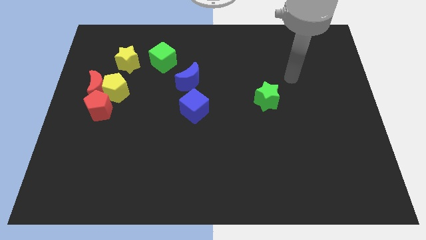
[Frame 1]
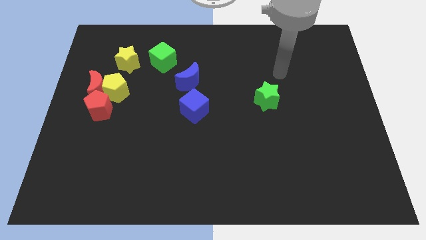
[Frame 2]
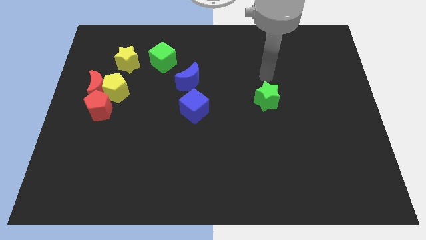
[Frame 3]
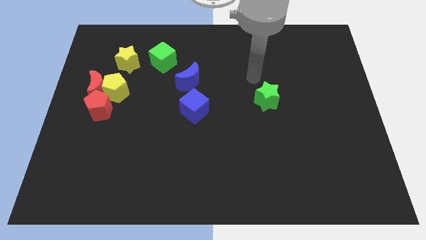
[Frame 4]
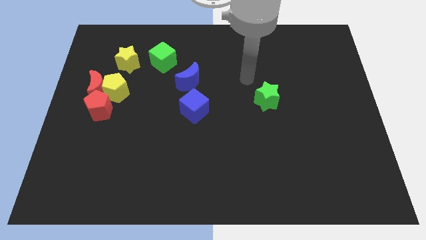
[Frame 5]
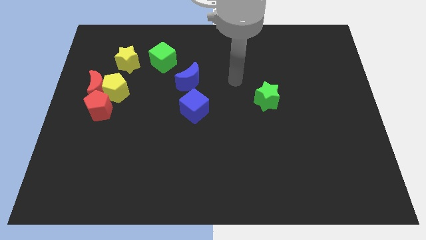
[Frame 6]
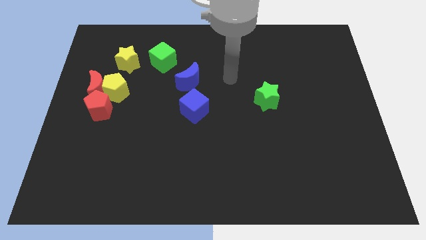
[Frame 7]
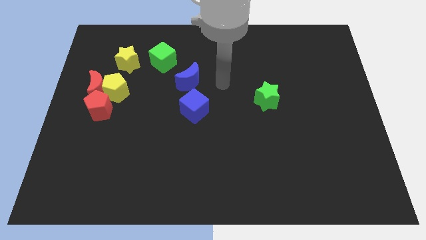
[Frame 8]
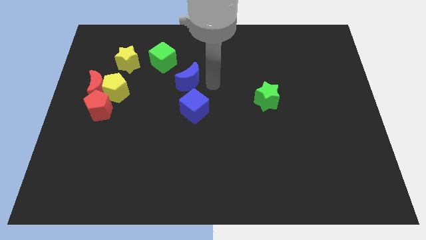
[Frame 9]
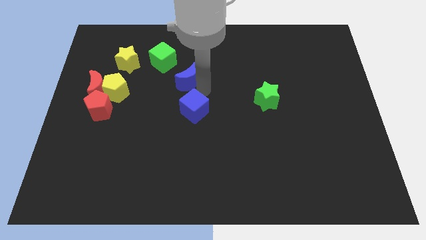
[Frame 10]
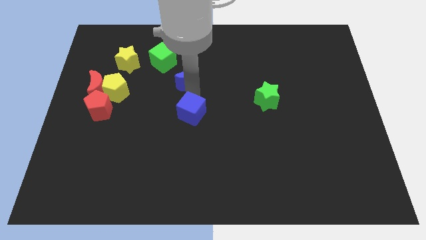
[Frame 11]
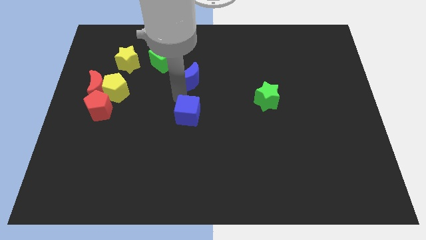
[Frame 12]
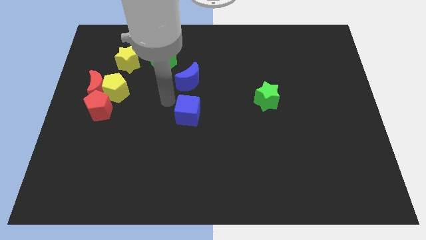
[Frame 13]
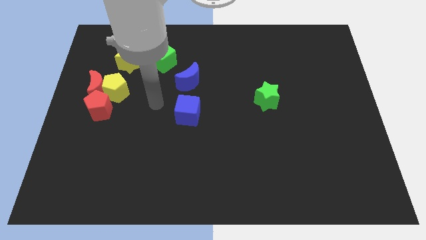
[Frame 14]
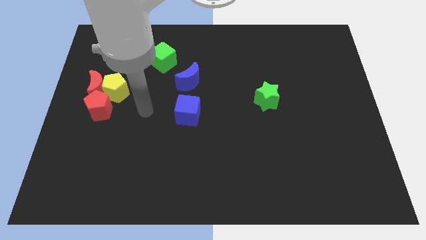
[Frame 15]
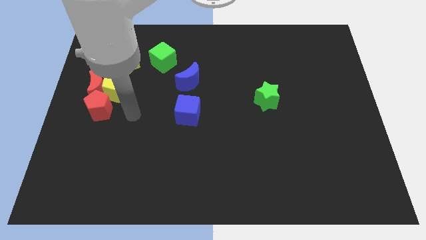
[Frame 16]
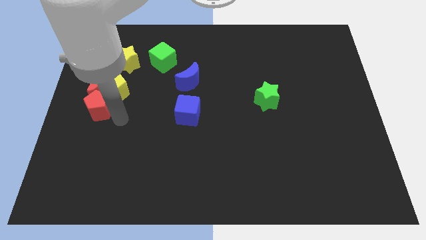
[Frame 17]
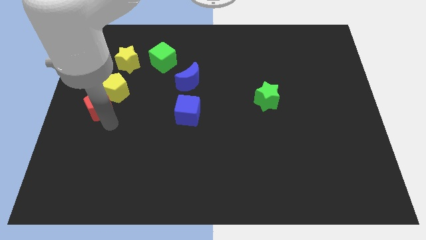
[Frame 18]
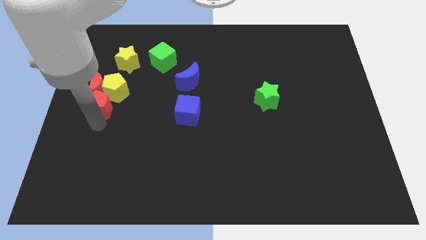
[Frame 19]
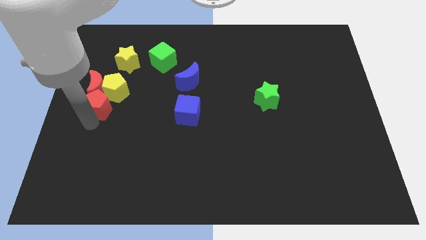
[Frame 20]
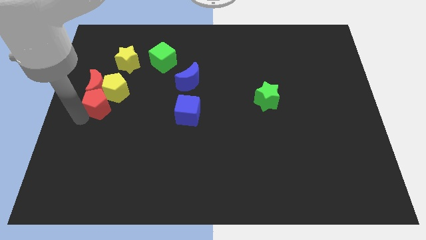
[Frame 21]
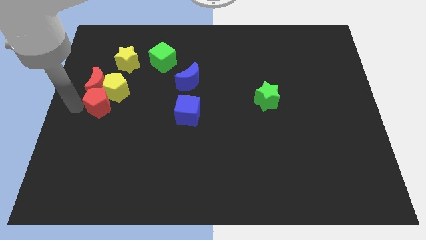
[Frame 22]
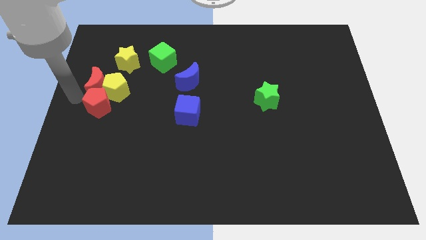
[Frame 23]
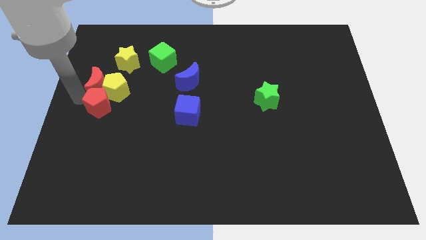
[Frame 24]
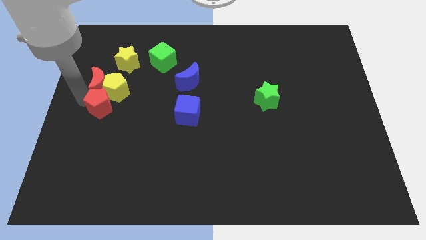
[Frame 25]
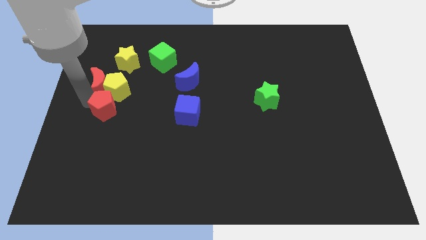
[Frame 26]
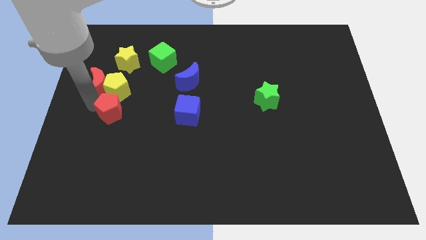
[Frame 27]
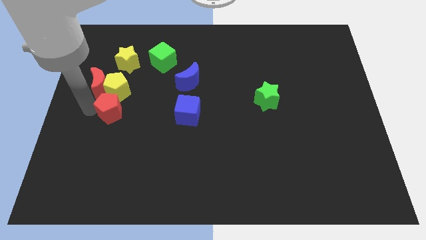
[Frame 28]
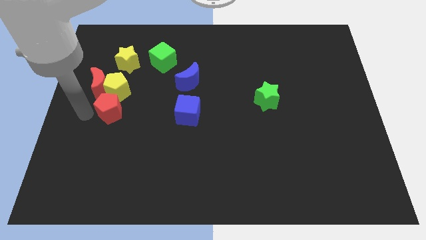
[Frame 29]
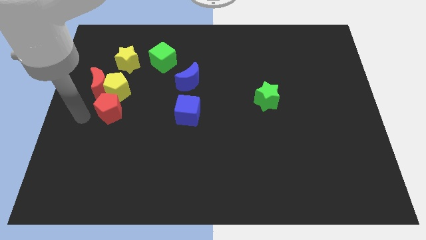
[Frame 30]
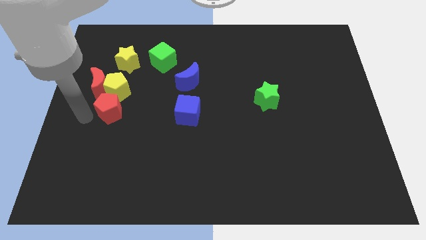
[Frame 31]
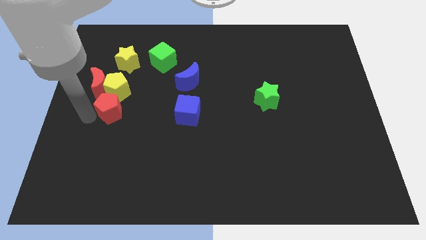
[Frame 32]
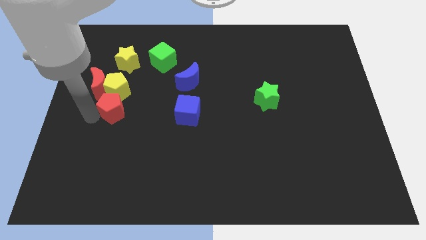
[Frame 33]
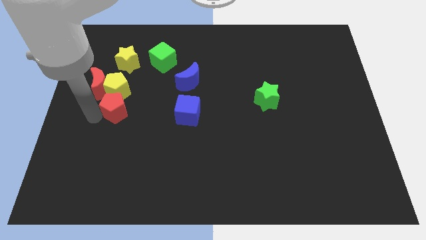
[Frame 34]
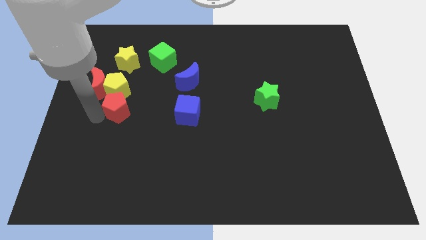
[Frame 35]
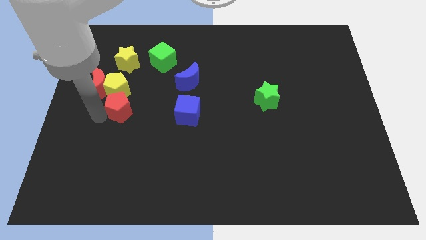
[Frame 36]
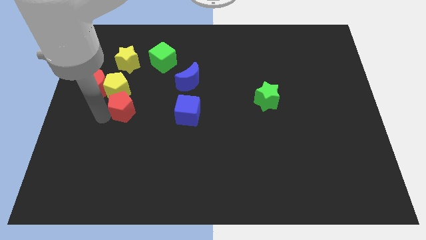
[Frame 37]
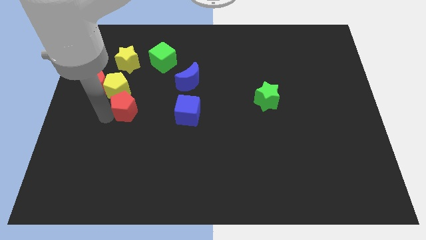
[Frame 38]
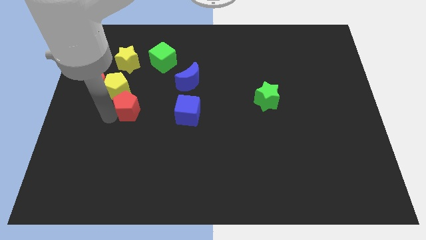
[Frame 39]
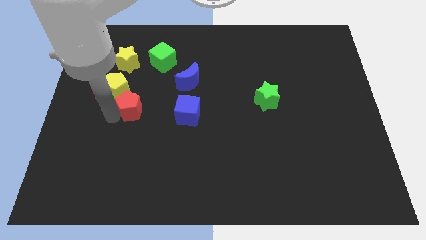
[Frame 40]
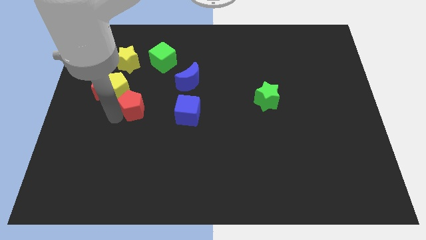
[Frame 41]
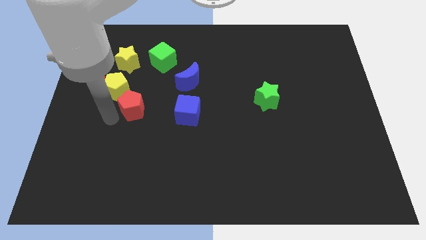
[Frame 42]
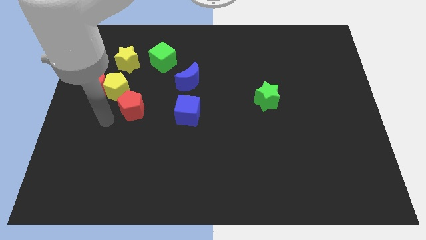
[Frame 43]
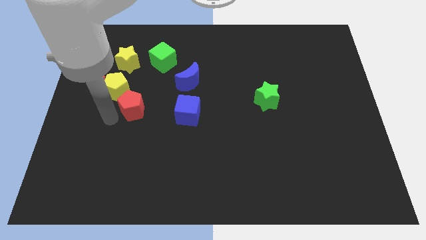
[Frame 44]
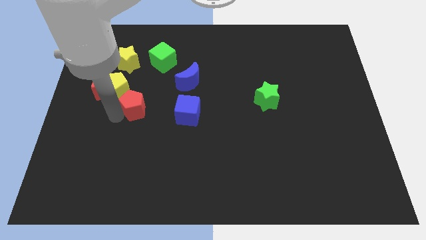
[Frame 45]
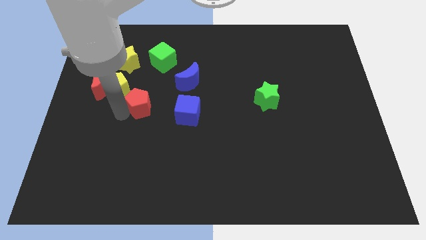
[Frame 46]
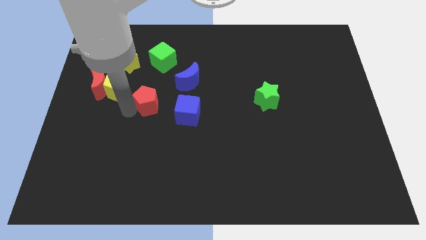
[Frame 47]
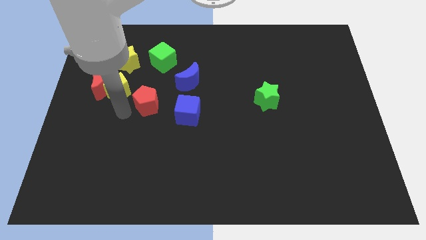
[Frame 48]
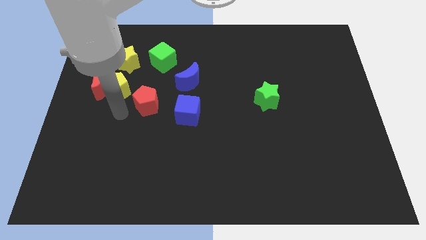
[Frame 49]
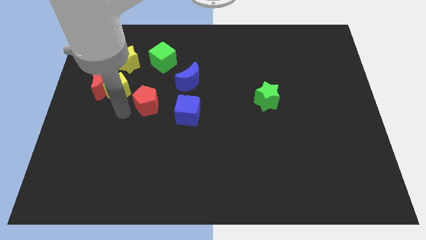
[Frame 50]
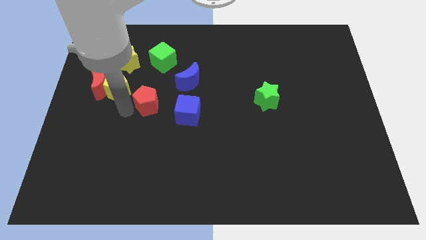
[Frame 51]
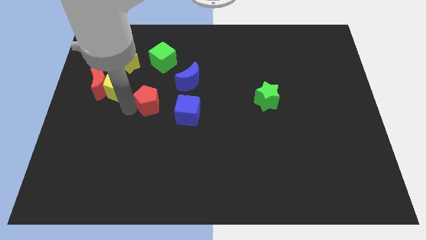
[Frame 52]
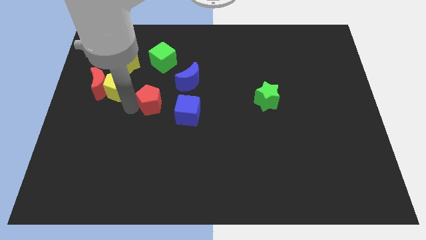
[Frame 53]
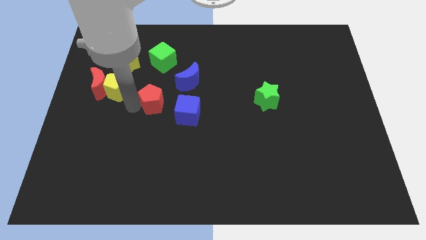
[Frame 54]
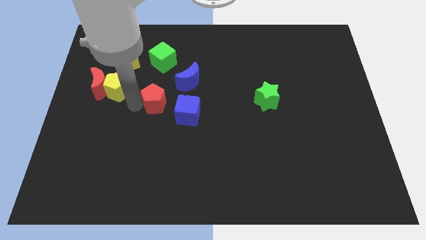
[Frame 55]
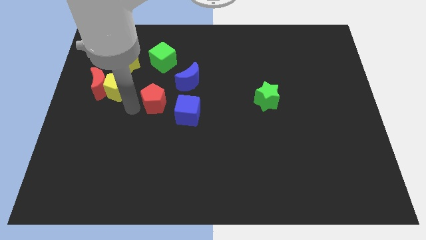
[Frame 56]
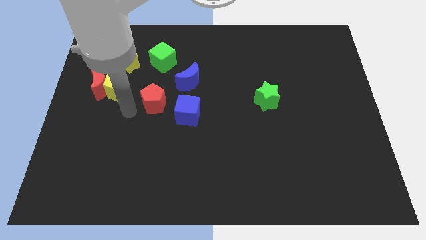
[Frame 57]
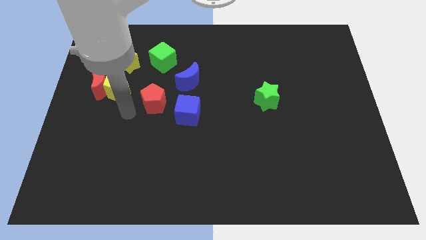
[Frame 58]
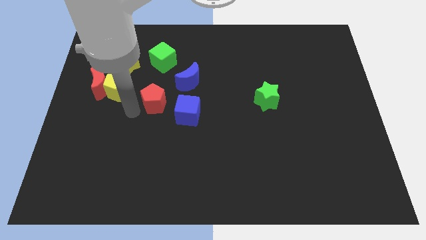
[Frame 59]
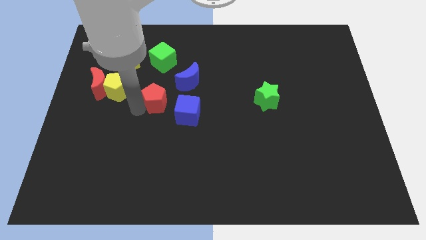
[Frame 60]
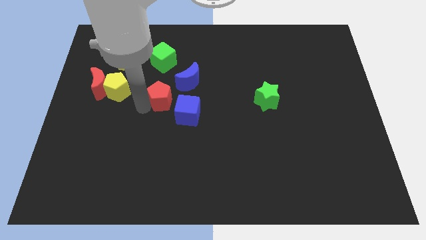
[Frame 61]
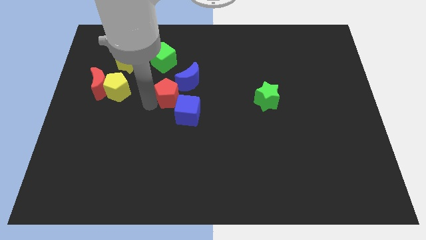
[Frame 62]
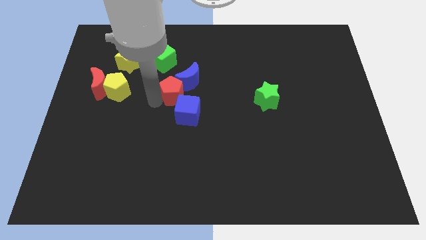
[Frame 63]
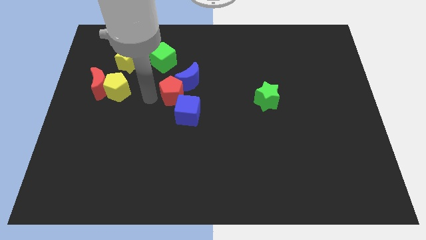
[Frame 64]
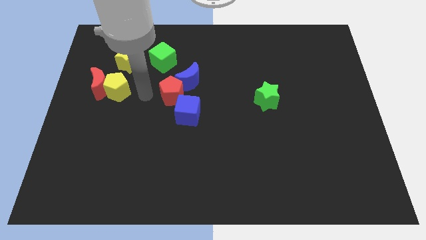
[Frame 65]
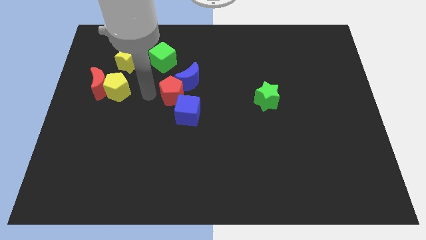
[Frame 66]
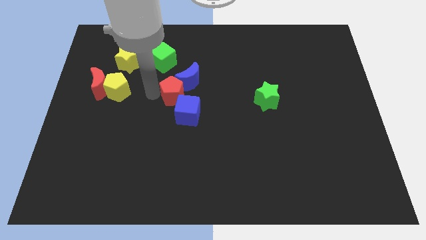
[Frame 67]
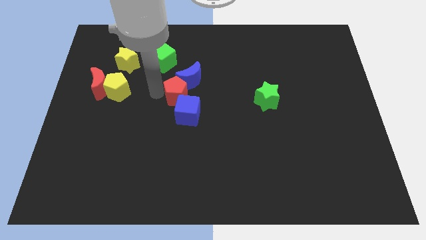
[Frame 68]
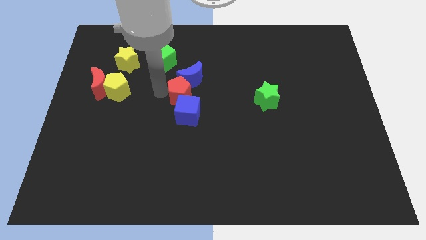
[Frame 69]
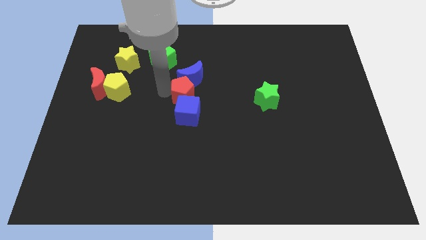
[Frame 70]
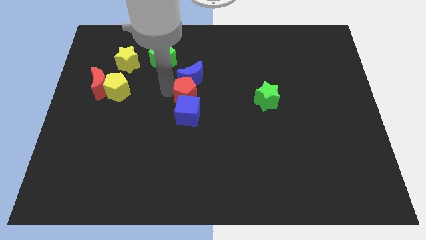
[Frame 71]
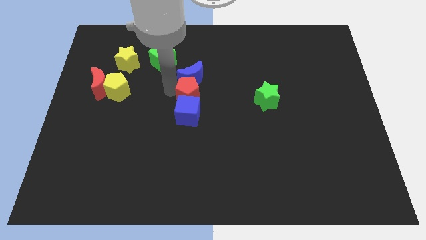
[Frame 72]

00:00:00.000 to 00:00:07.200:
move the red pentagon right

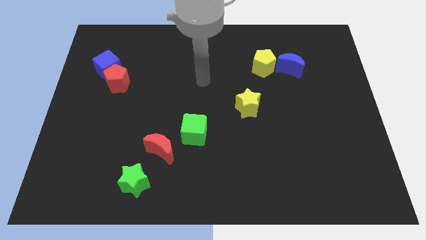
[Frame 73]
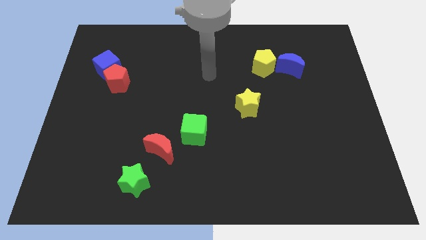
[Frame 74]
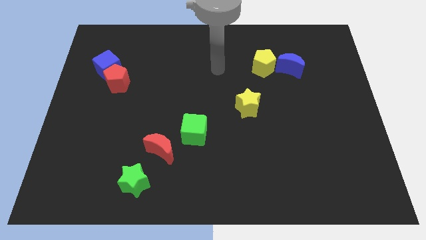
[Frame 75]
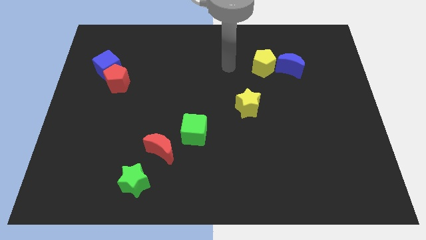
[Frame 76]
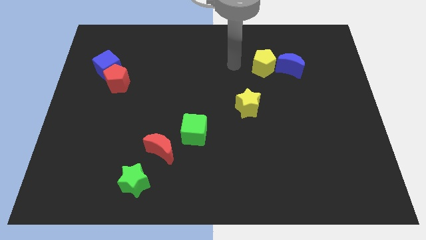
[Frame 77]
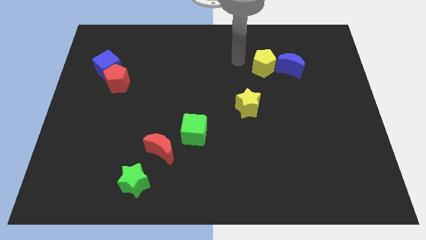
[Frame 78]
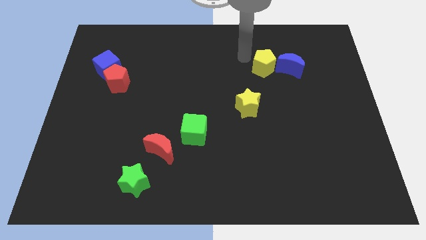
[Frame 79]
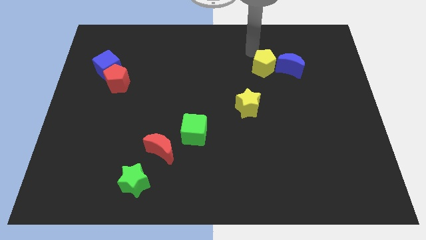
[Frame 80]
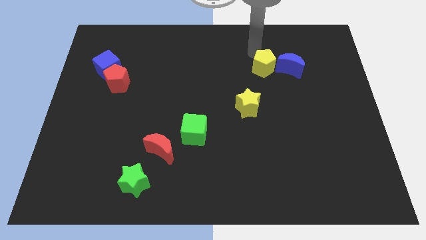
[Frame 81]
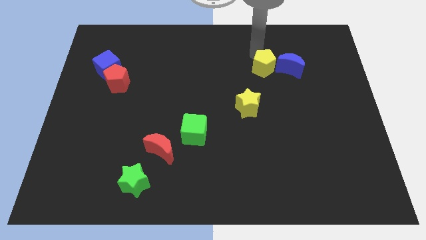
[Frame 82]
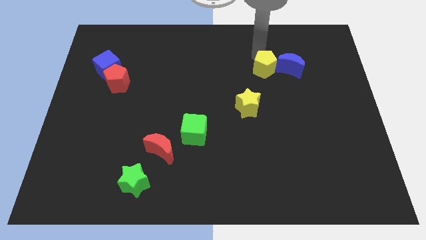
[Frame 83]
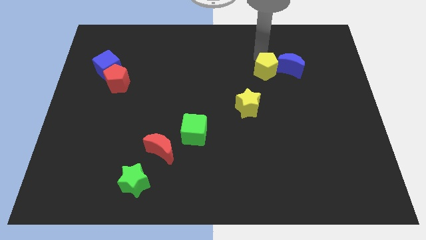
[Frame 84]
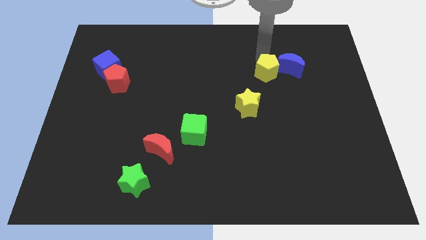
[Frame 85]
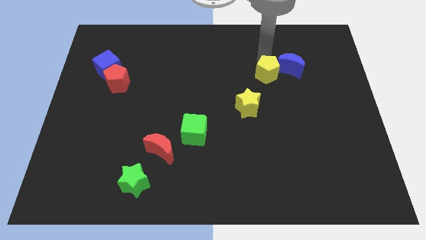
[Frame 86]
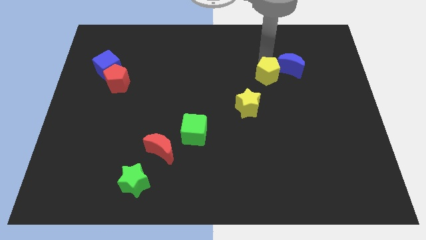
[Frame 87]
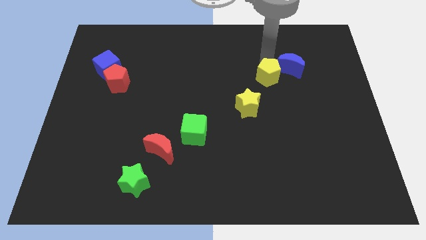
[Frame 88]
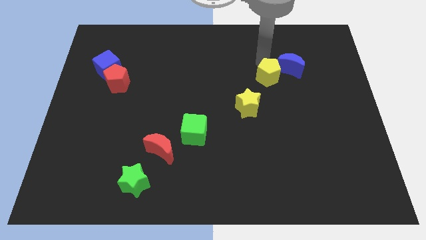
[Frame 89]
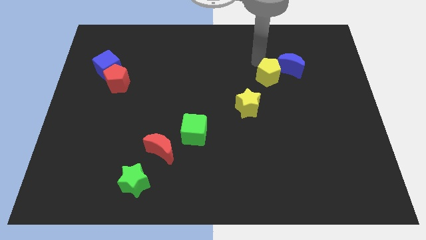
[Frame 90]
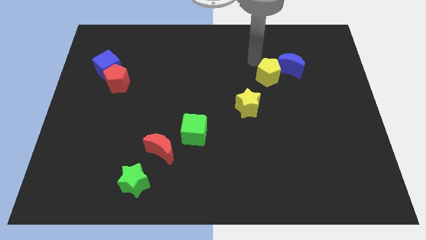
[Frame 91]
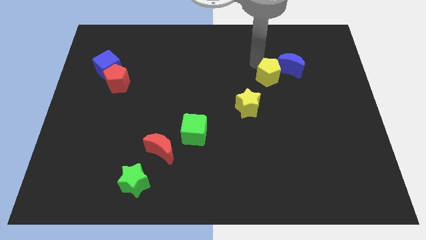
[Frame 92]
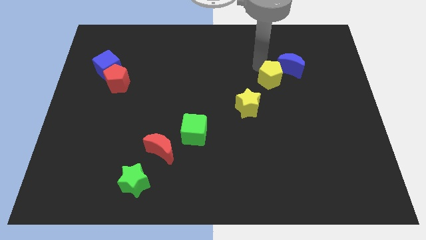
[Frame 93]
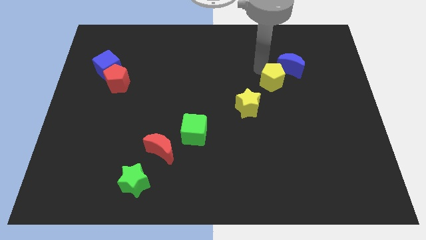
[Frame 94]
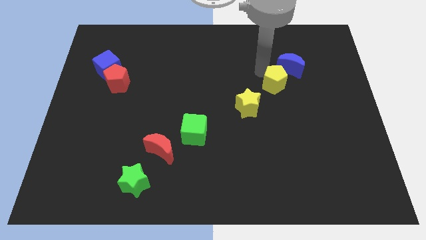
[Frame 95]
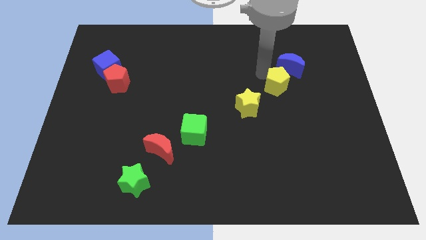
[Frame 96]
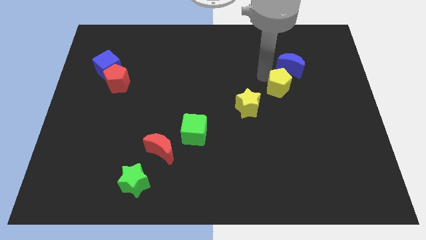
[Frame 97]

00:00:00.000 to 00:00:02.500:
slide the yellow pentagon a bit downwards and right
